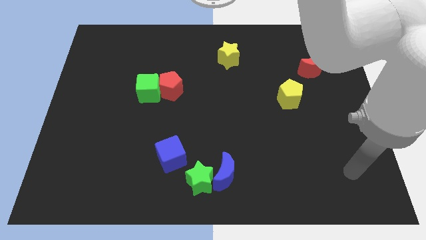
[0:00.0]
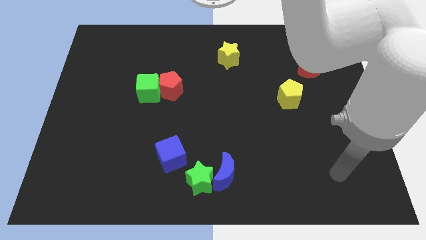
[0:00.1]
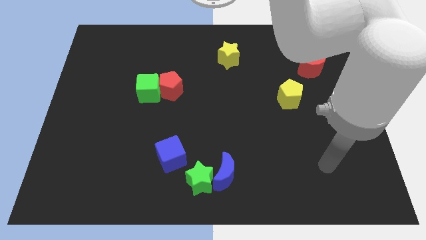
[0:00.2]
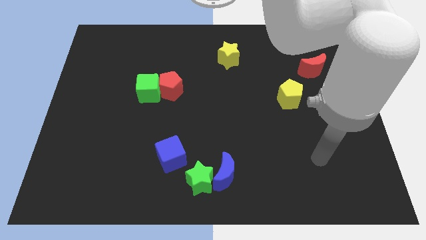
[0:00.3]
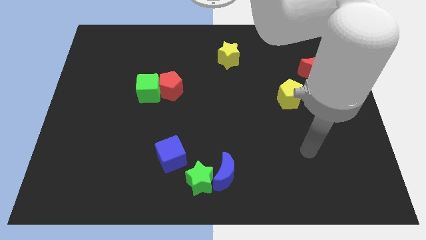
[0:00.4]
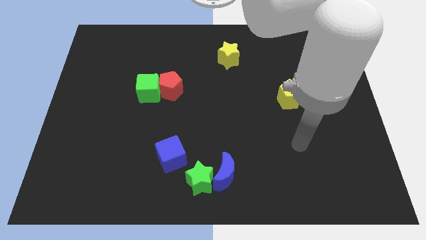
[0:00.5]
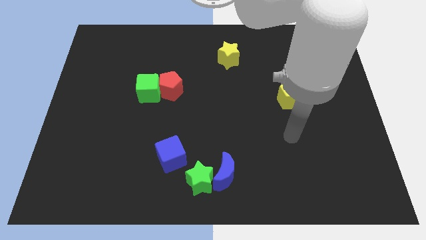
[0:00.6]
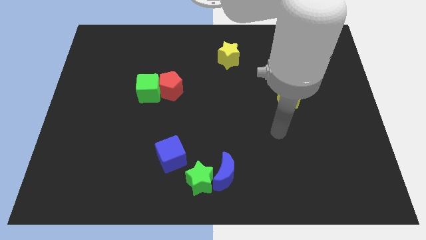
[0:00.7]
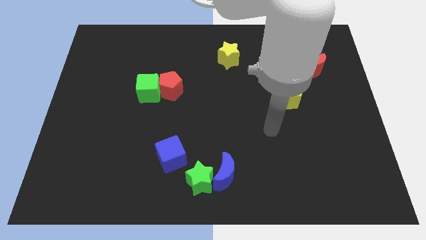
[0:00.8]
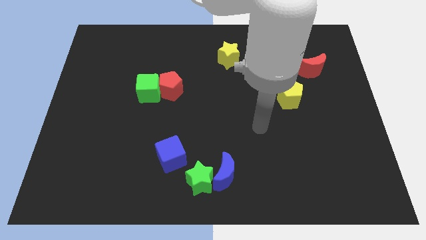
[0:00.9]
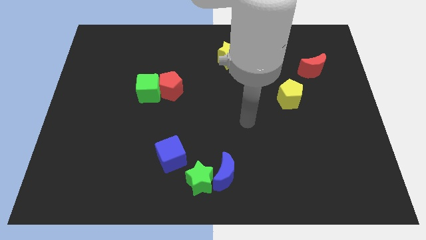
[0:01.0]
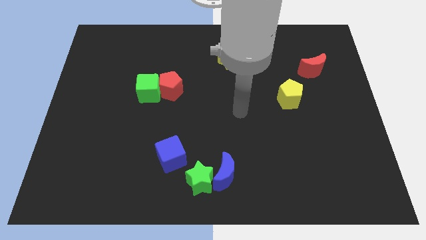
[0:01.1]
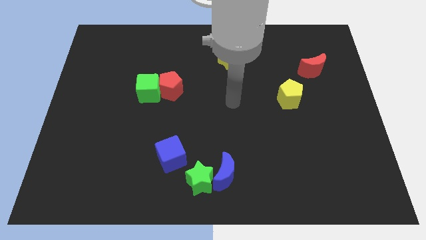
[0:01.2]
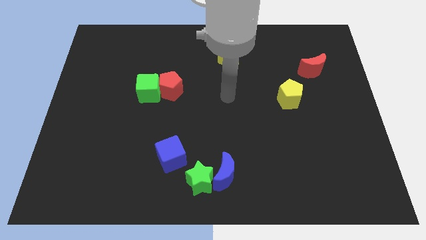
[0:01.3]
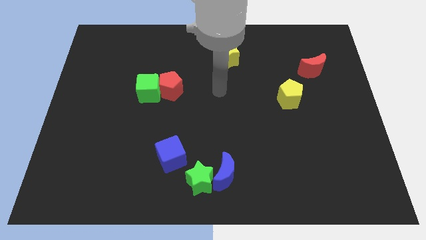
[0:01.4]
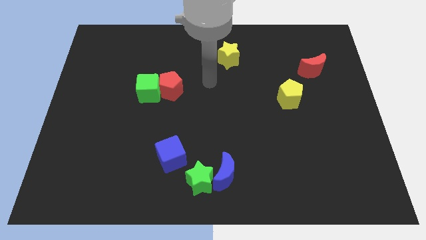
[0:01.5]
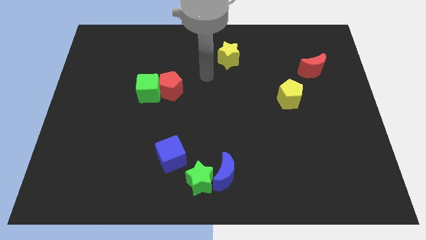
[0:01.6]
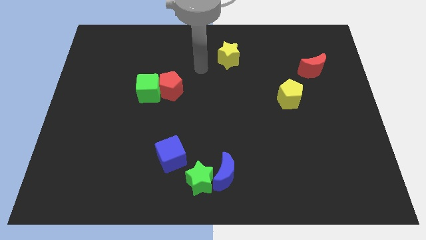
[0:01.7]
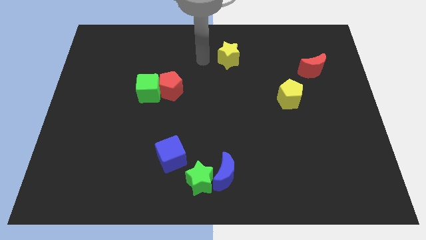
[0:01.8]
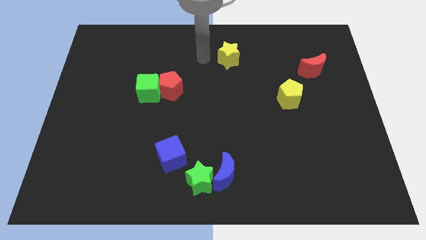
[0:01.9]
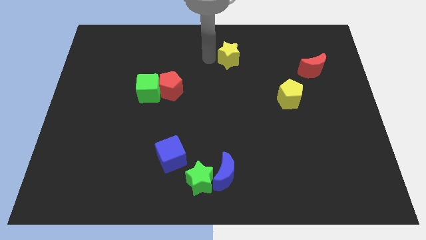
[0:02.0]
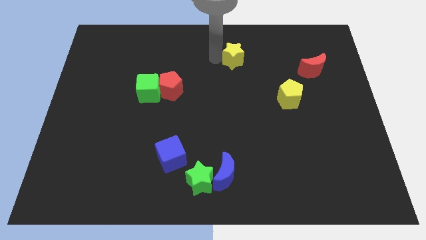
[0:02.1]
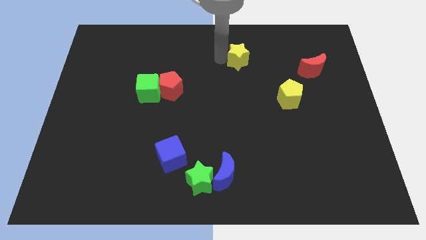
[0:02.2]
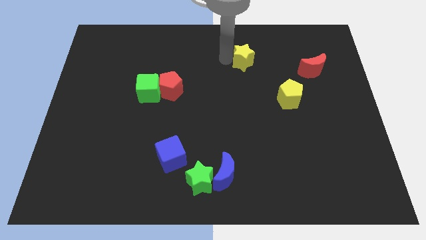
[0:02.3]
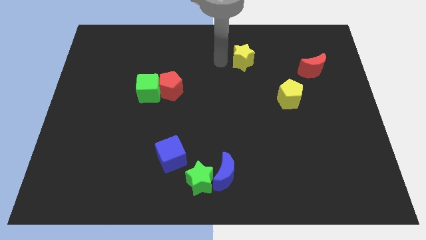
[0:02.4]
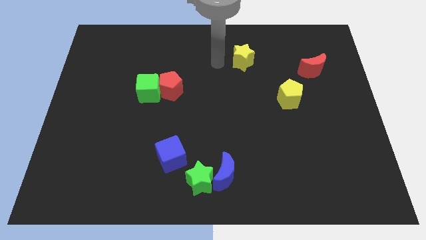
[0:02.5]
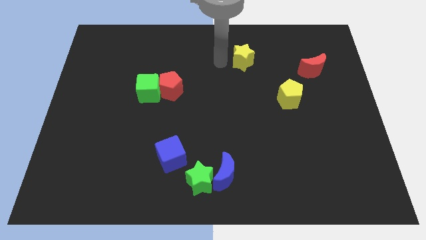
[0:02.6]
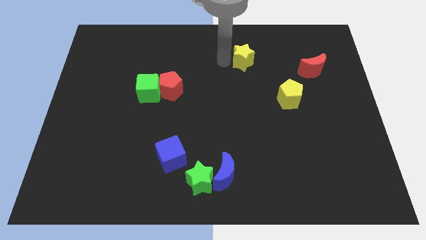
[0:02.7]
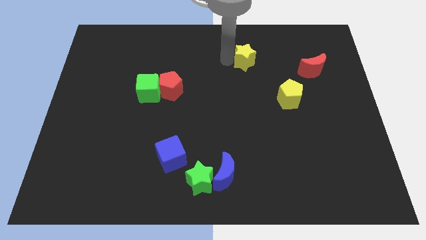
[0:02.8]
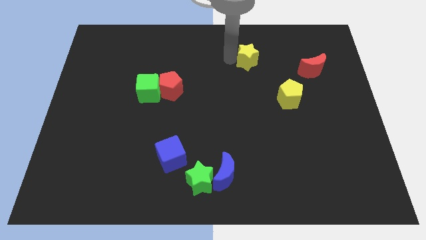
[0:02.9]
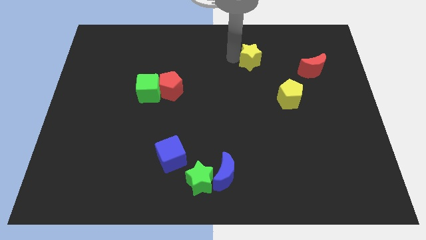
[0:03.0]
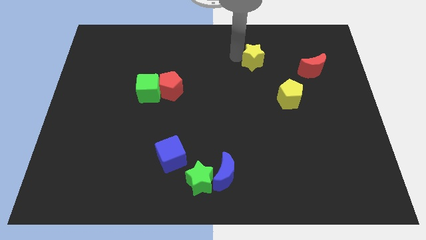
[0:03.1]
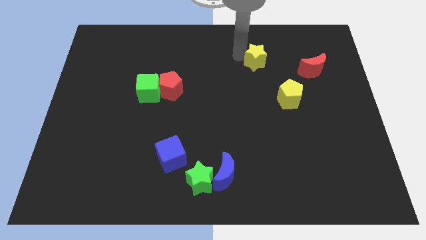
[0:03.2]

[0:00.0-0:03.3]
slightly slide the yellow star to the right

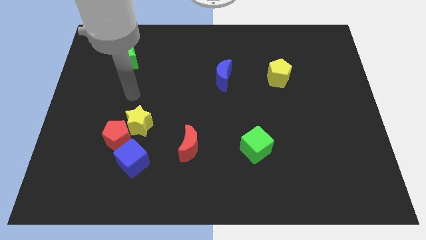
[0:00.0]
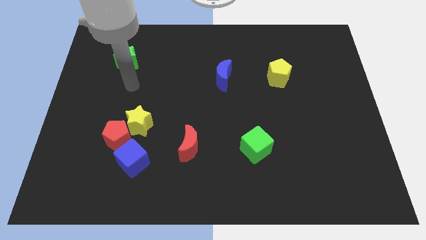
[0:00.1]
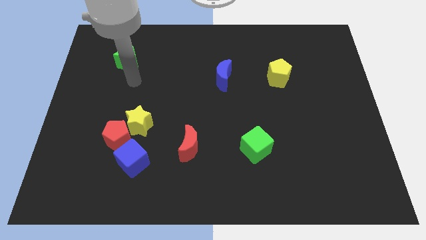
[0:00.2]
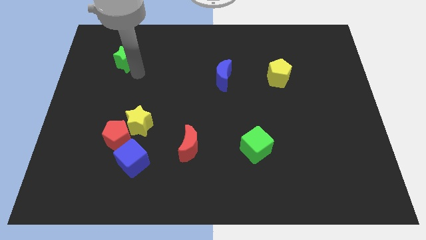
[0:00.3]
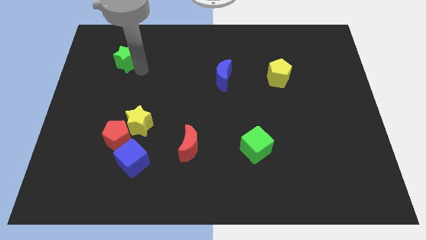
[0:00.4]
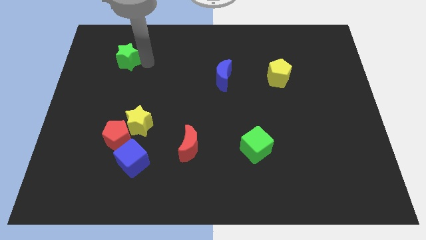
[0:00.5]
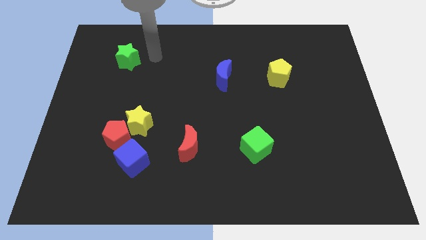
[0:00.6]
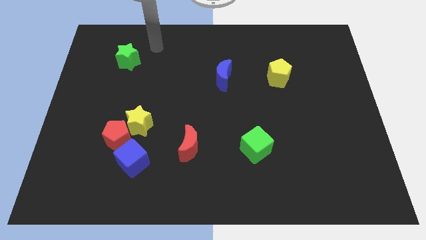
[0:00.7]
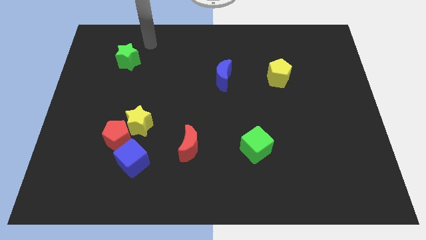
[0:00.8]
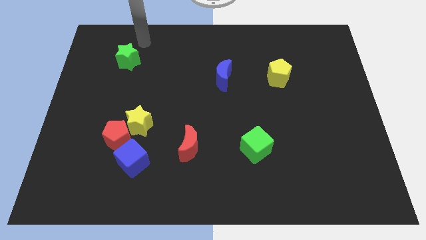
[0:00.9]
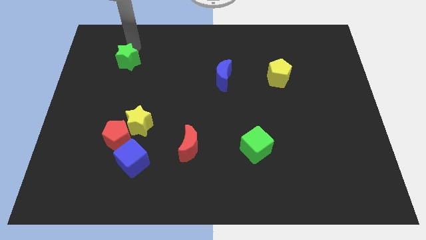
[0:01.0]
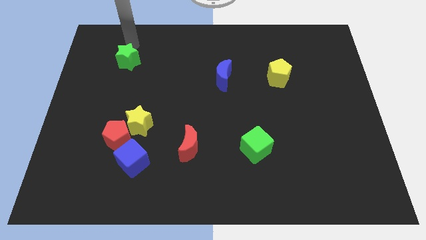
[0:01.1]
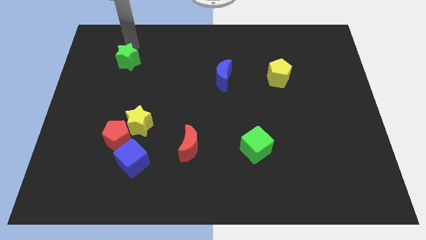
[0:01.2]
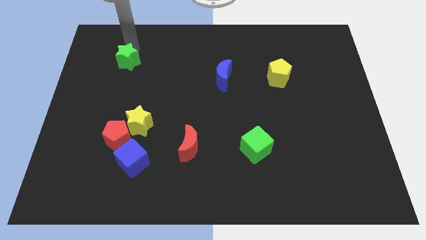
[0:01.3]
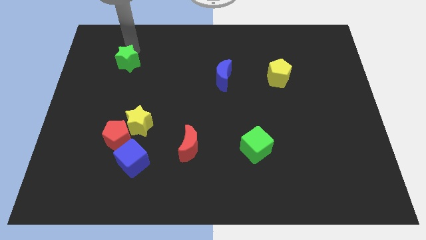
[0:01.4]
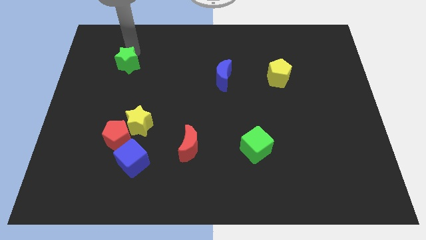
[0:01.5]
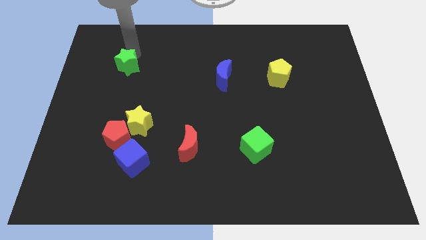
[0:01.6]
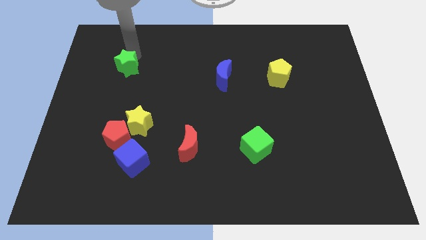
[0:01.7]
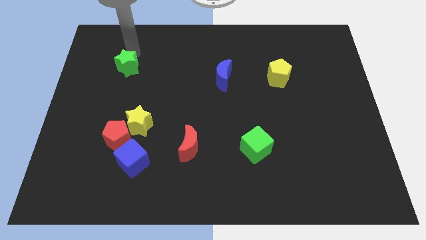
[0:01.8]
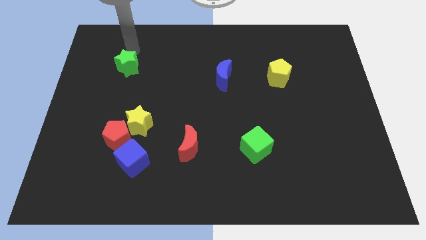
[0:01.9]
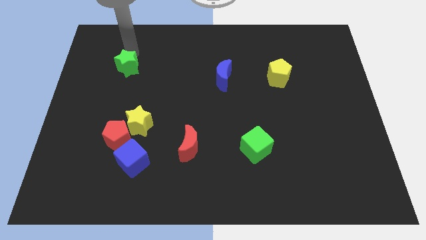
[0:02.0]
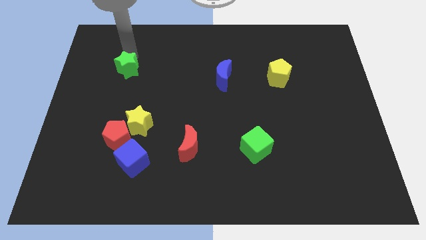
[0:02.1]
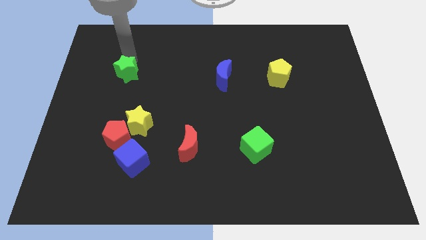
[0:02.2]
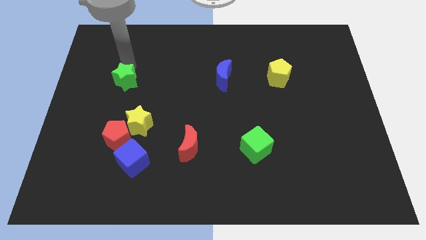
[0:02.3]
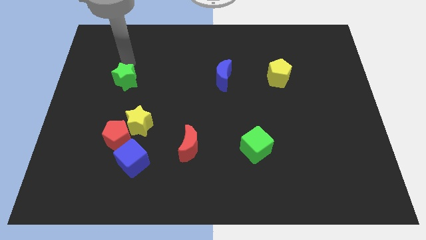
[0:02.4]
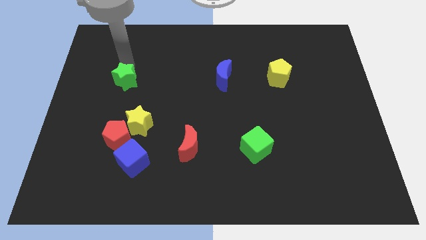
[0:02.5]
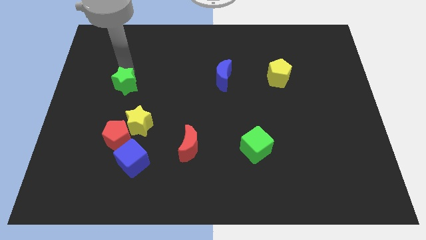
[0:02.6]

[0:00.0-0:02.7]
slide the green star a little down

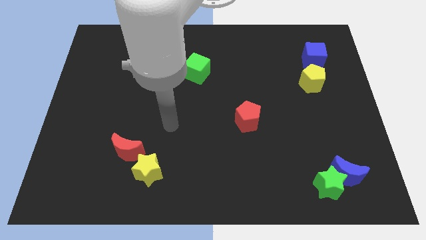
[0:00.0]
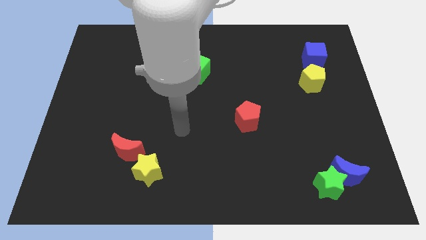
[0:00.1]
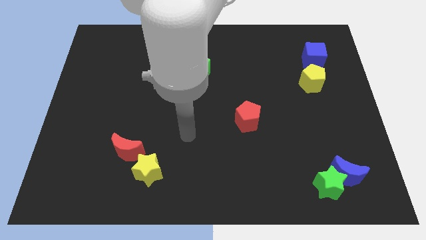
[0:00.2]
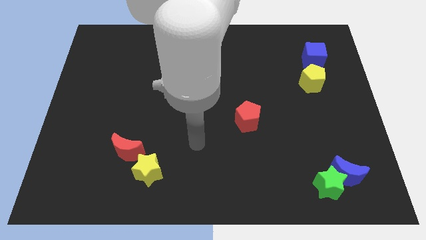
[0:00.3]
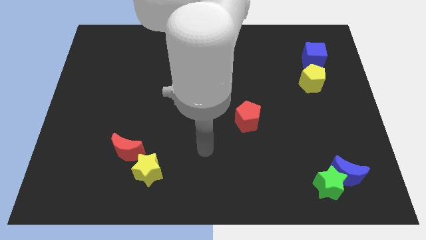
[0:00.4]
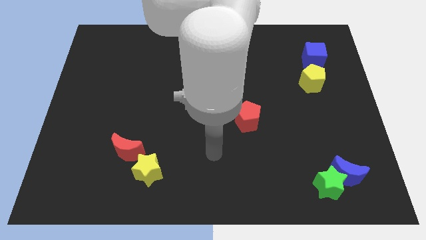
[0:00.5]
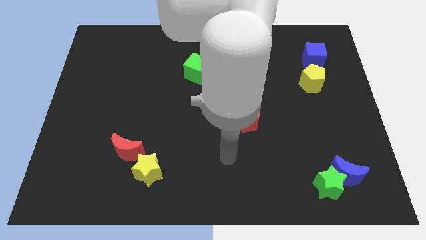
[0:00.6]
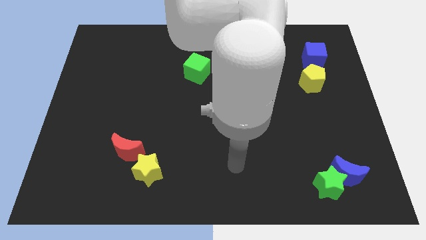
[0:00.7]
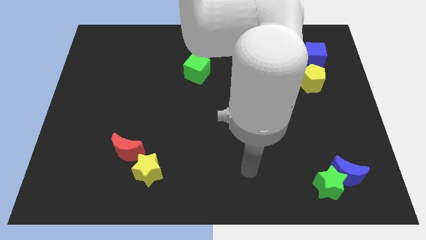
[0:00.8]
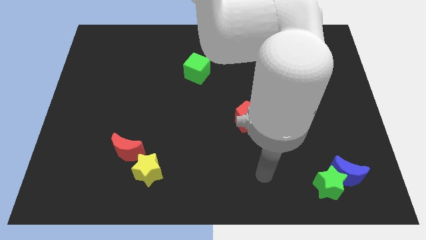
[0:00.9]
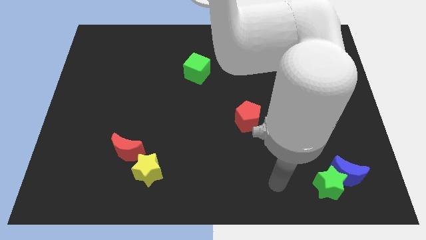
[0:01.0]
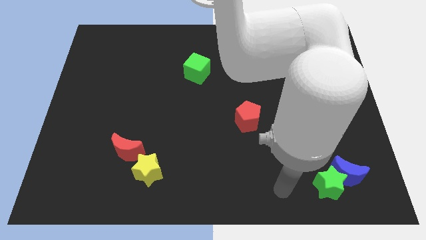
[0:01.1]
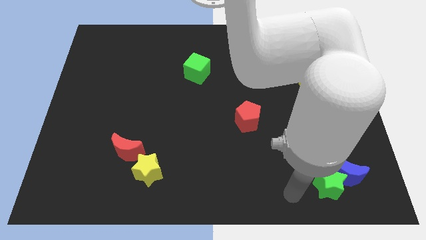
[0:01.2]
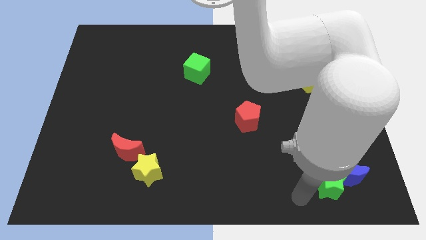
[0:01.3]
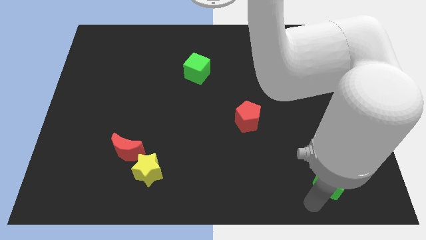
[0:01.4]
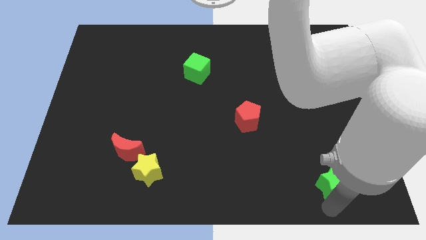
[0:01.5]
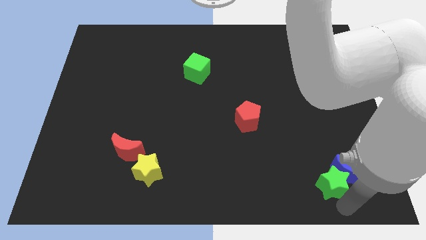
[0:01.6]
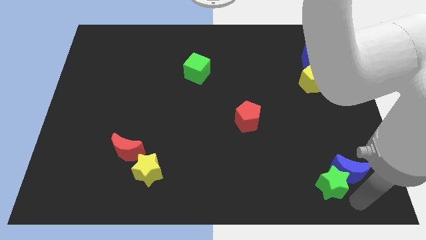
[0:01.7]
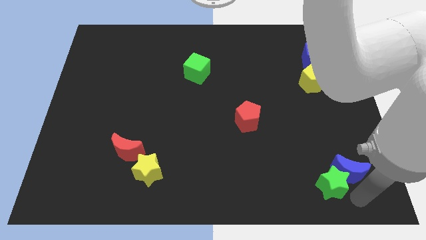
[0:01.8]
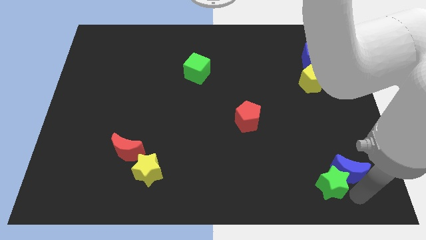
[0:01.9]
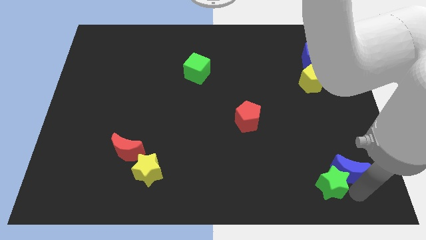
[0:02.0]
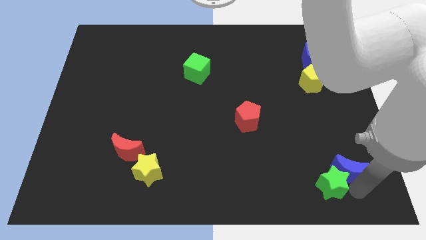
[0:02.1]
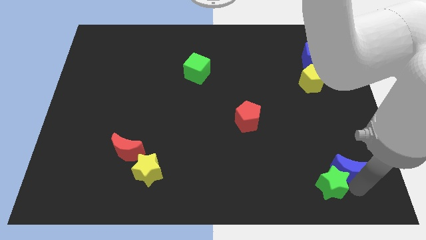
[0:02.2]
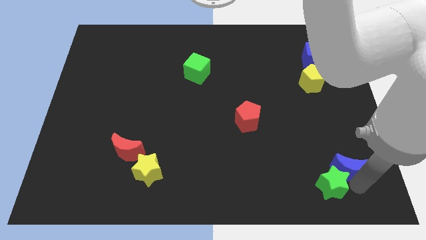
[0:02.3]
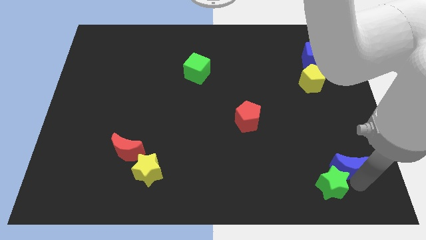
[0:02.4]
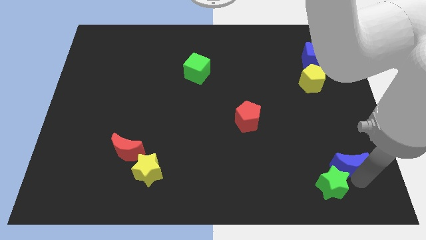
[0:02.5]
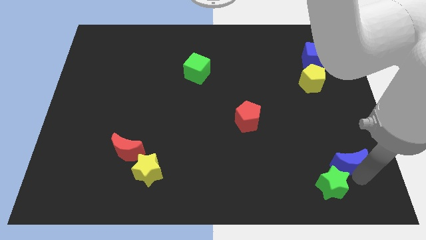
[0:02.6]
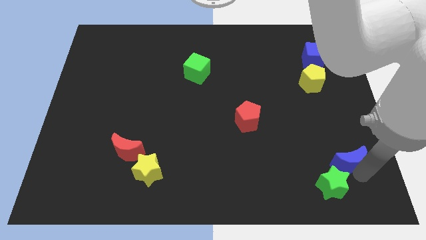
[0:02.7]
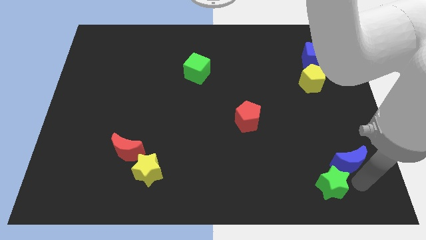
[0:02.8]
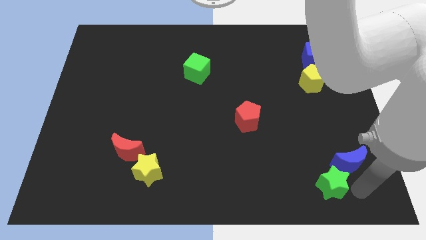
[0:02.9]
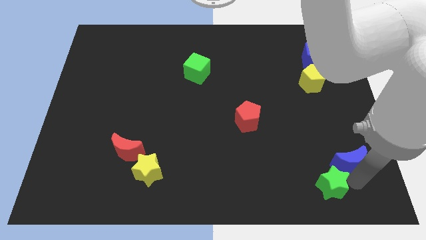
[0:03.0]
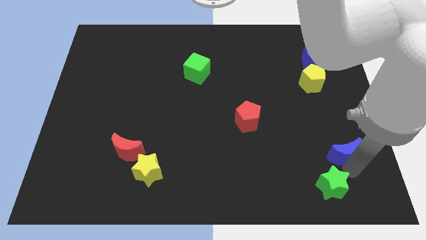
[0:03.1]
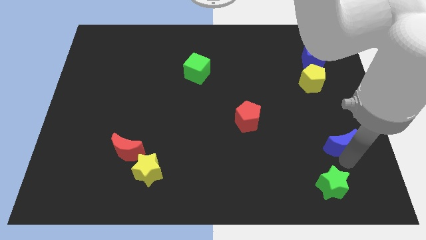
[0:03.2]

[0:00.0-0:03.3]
push the blue moon up a little bit
